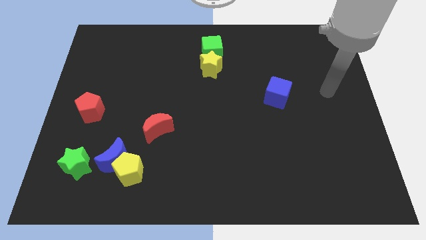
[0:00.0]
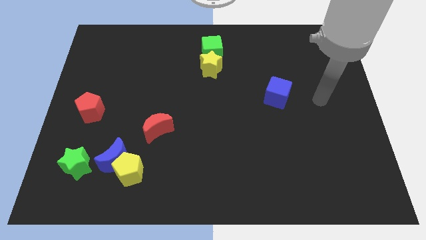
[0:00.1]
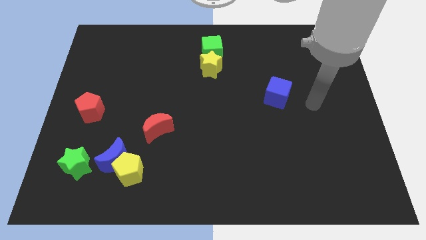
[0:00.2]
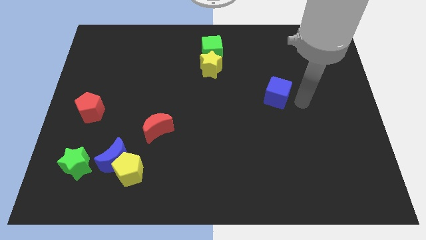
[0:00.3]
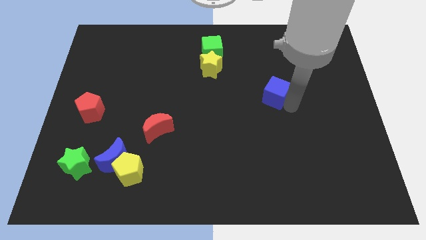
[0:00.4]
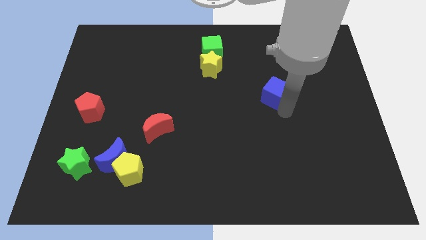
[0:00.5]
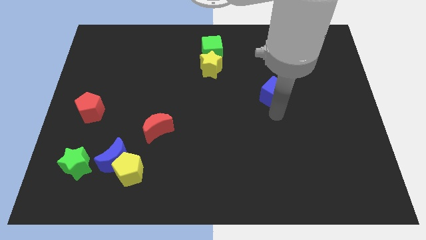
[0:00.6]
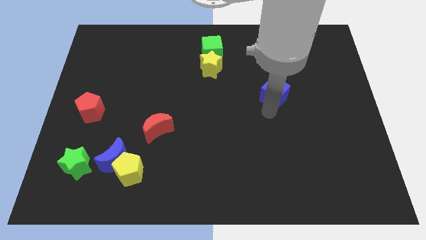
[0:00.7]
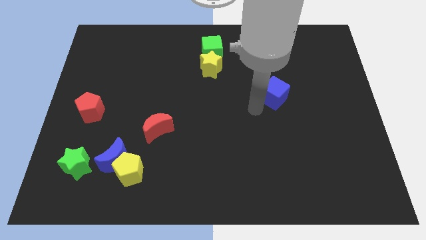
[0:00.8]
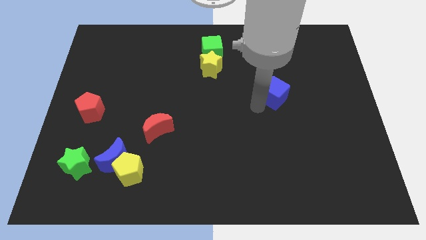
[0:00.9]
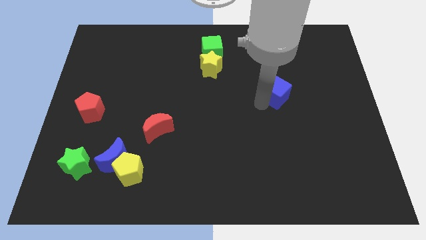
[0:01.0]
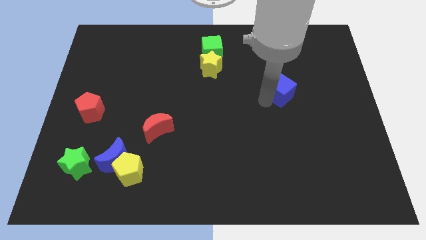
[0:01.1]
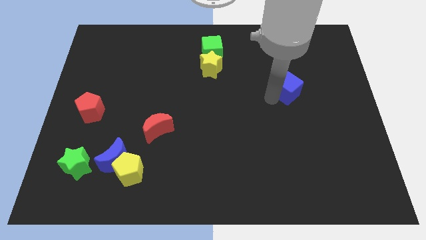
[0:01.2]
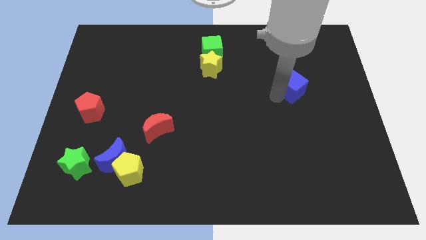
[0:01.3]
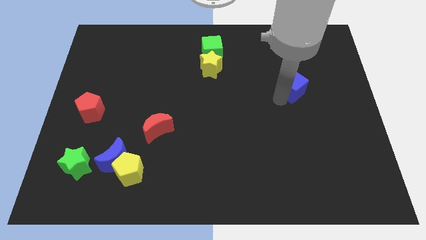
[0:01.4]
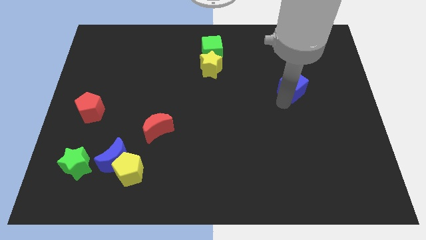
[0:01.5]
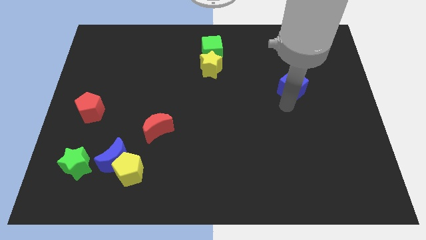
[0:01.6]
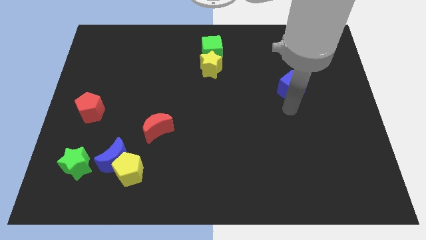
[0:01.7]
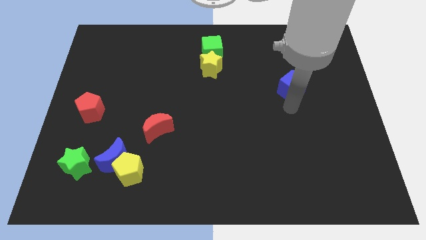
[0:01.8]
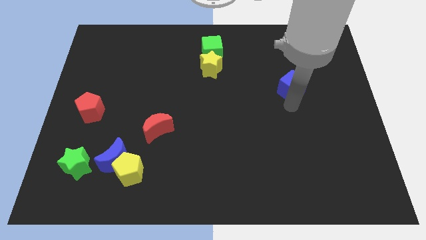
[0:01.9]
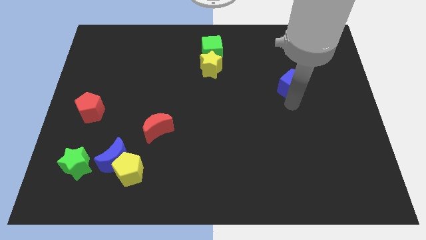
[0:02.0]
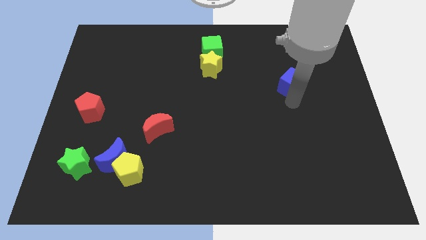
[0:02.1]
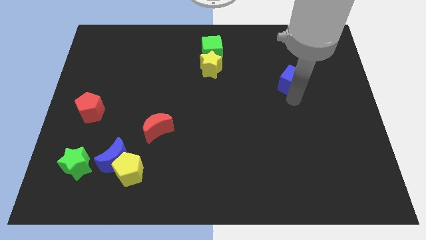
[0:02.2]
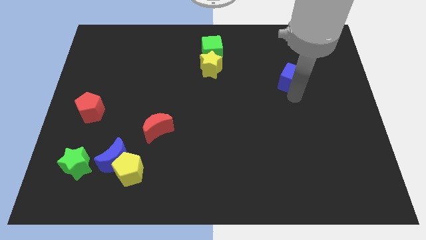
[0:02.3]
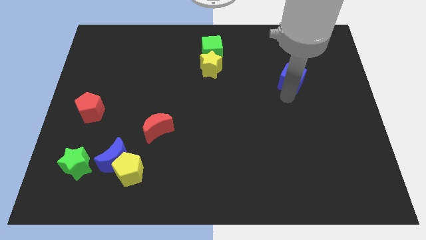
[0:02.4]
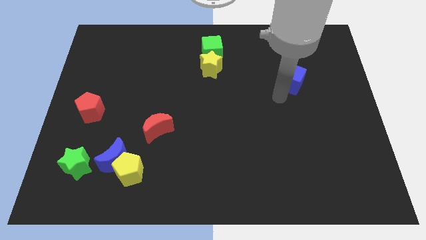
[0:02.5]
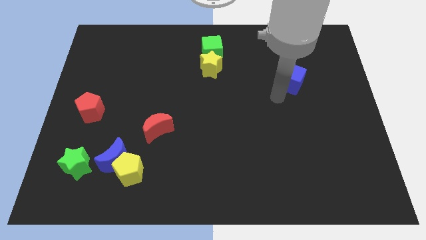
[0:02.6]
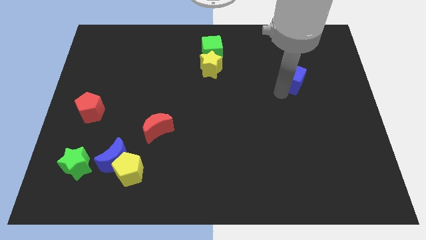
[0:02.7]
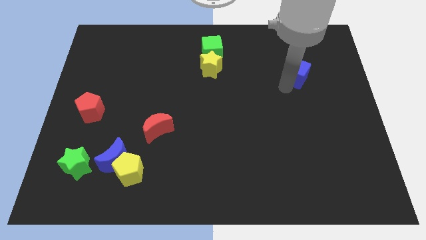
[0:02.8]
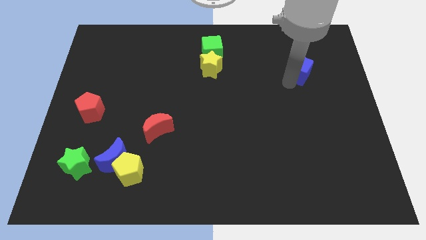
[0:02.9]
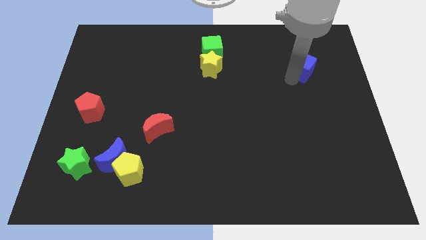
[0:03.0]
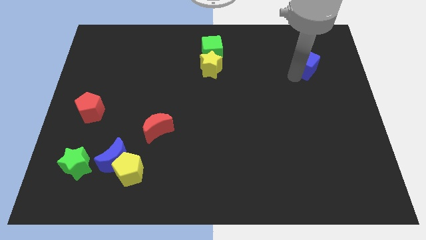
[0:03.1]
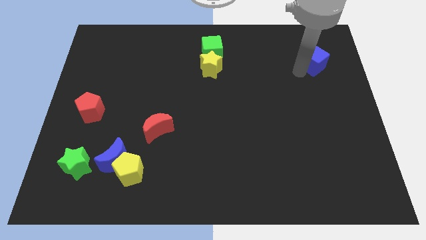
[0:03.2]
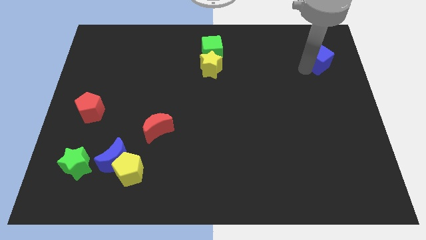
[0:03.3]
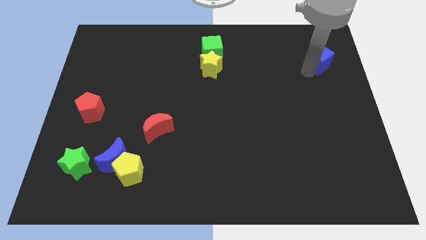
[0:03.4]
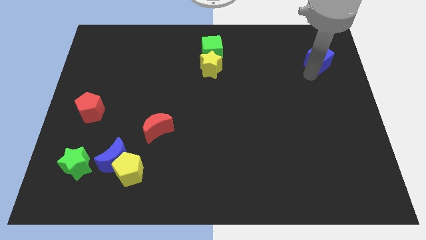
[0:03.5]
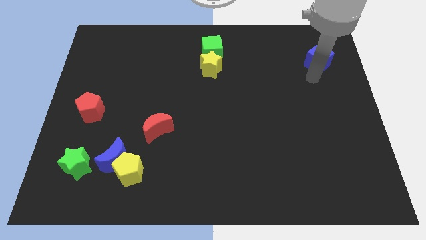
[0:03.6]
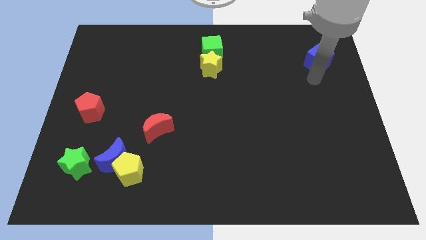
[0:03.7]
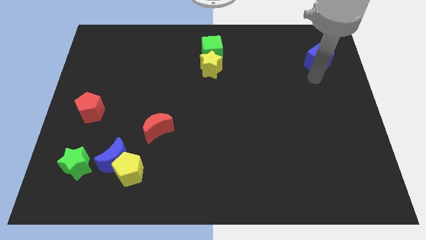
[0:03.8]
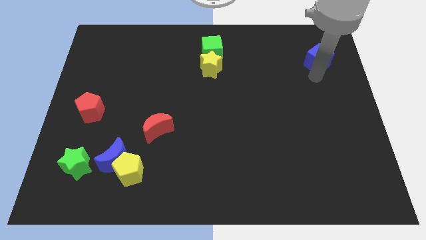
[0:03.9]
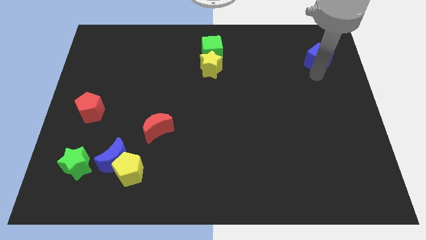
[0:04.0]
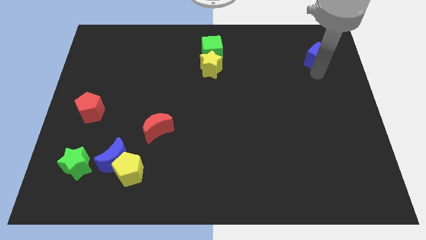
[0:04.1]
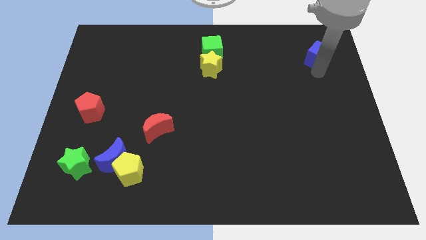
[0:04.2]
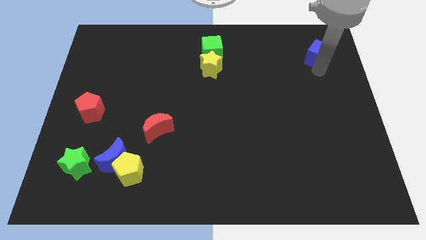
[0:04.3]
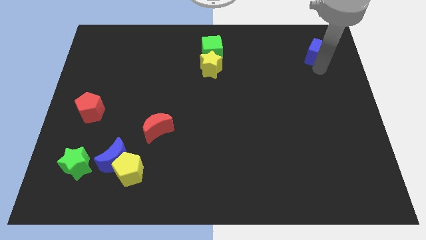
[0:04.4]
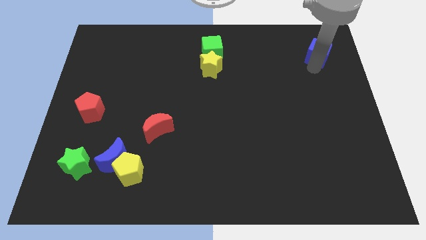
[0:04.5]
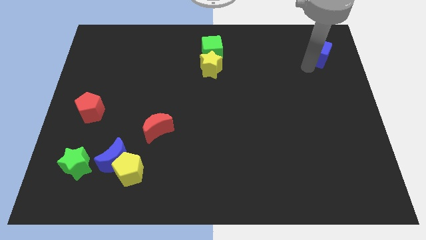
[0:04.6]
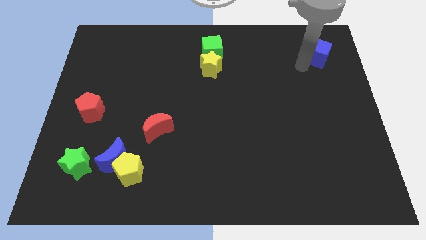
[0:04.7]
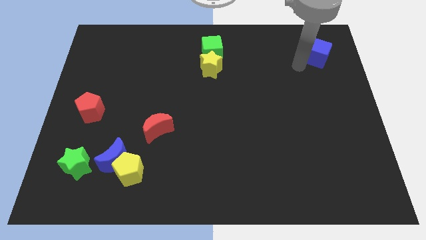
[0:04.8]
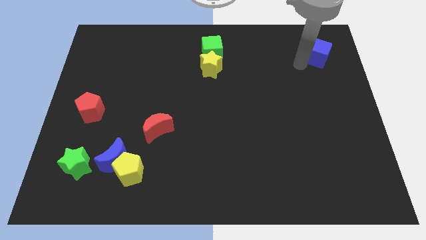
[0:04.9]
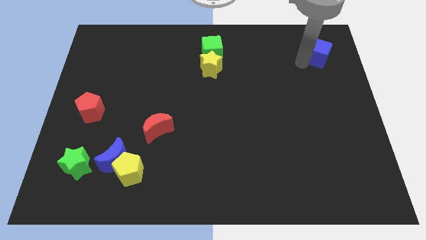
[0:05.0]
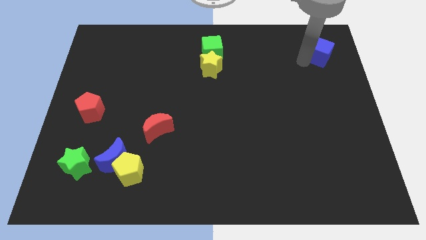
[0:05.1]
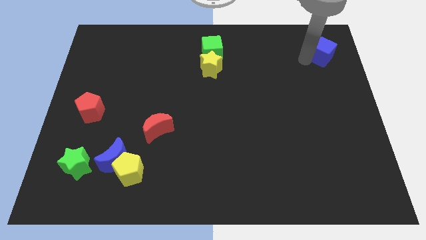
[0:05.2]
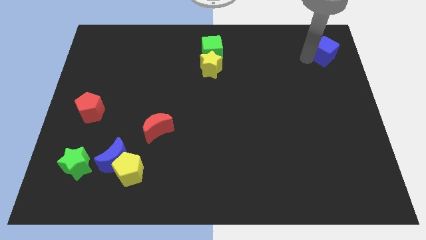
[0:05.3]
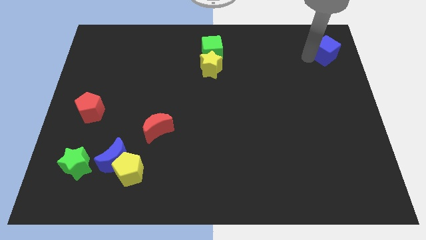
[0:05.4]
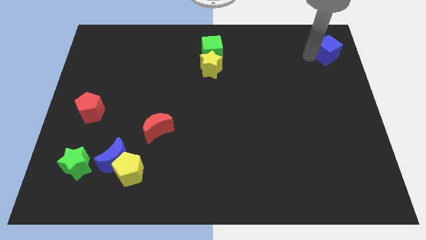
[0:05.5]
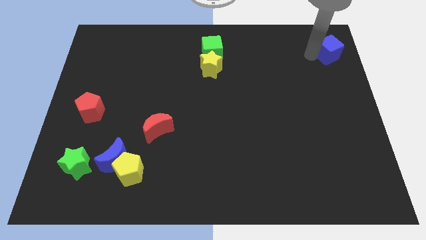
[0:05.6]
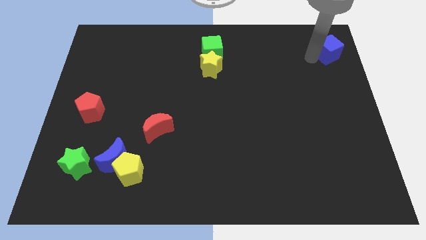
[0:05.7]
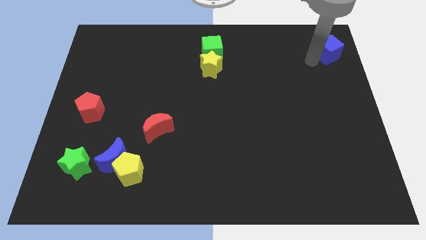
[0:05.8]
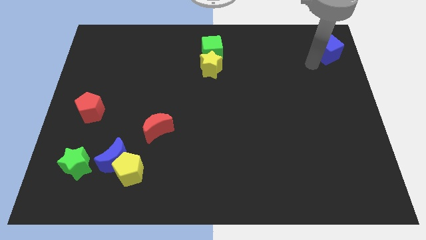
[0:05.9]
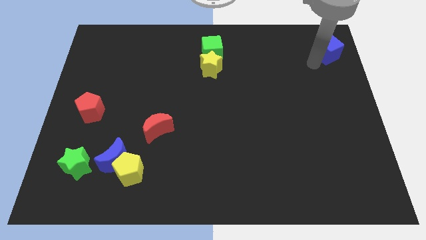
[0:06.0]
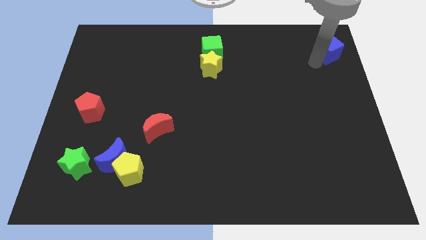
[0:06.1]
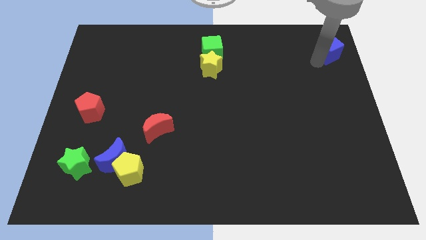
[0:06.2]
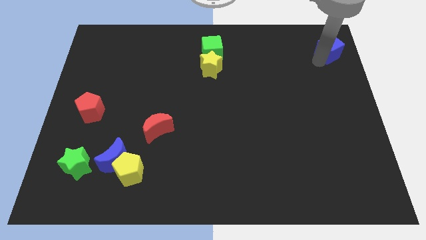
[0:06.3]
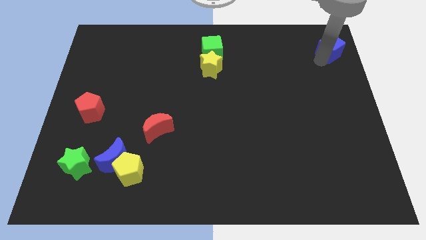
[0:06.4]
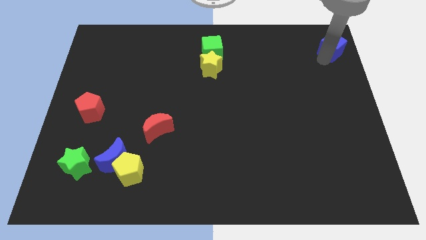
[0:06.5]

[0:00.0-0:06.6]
move the blue cube to the top right corner
